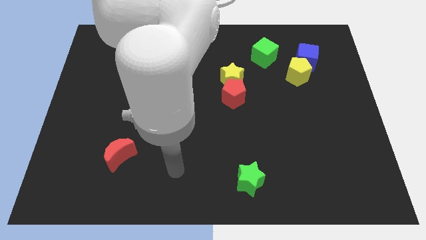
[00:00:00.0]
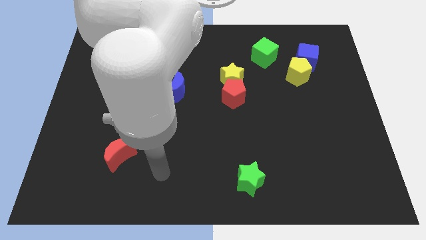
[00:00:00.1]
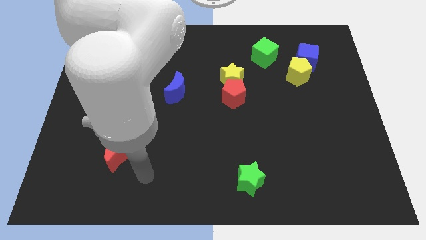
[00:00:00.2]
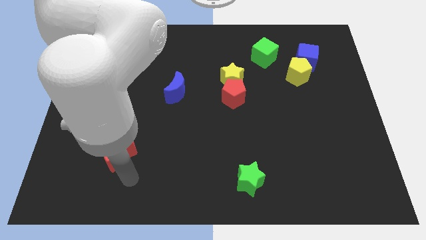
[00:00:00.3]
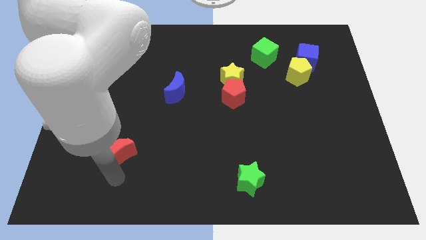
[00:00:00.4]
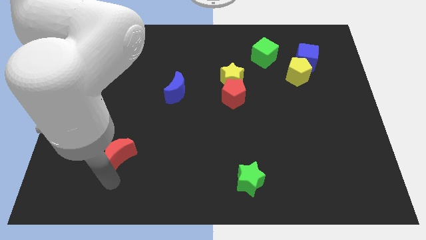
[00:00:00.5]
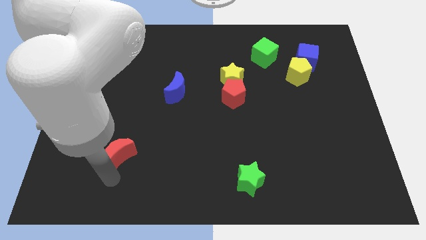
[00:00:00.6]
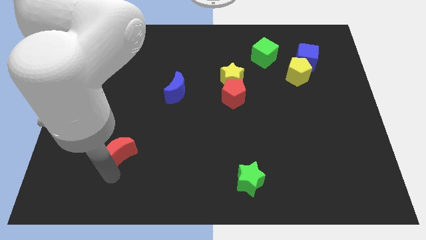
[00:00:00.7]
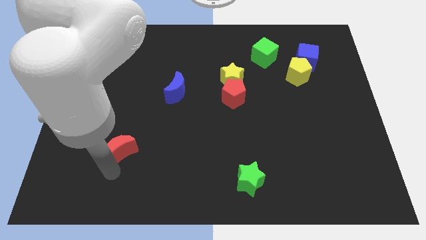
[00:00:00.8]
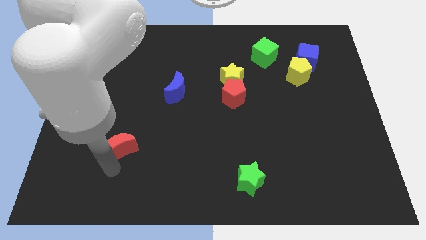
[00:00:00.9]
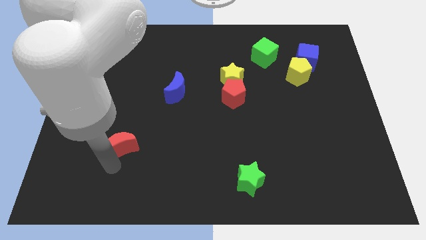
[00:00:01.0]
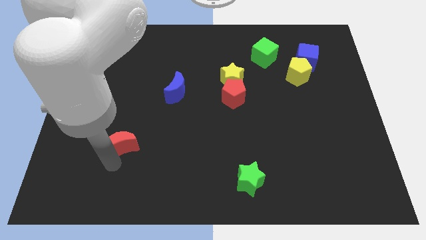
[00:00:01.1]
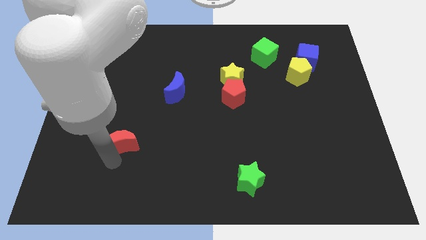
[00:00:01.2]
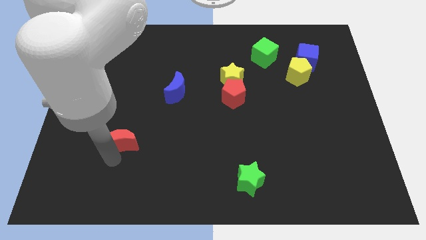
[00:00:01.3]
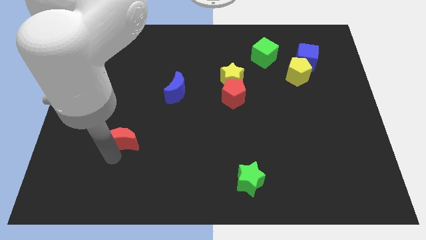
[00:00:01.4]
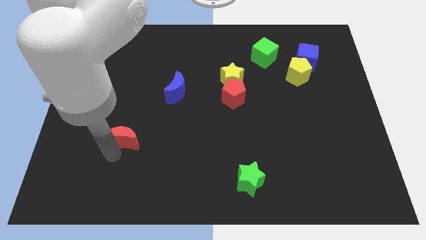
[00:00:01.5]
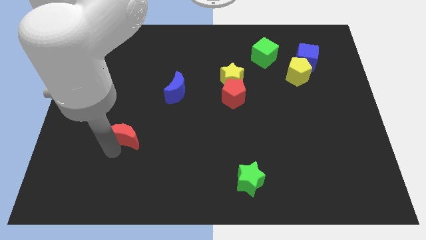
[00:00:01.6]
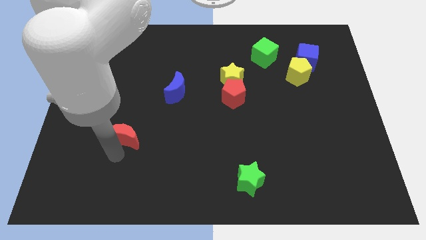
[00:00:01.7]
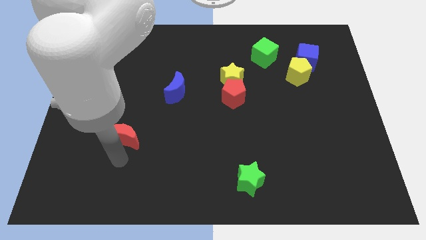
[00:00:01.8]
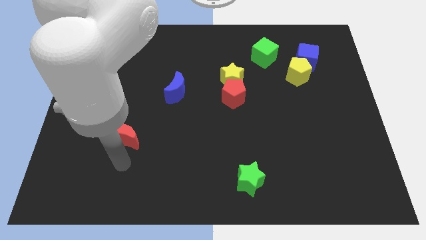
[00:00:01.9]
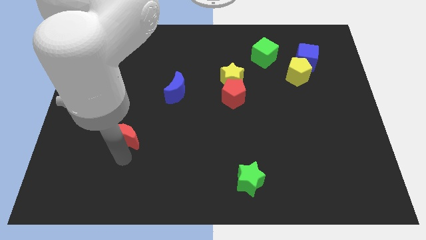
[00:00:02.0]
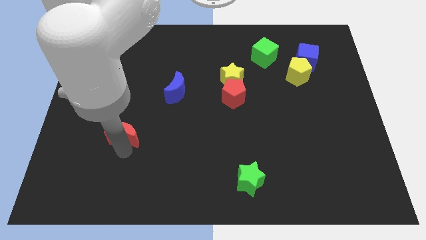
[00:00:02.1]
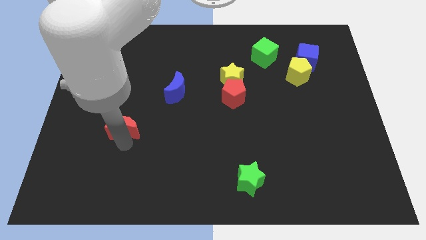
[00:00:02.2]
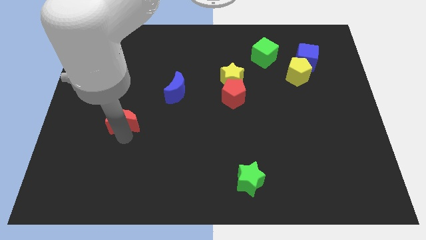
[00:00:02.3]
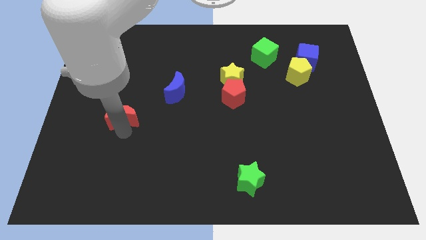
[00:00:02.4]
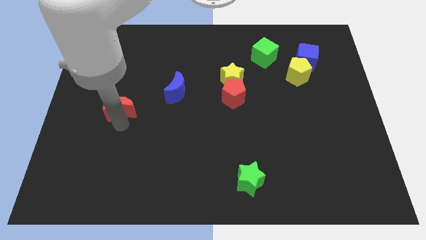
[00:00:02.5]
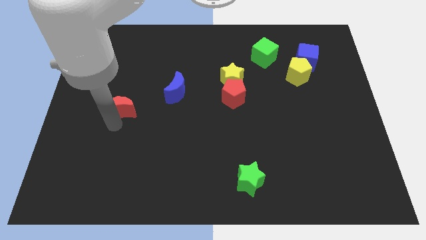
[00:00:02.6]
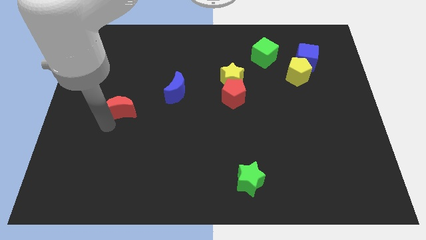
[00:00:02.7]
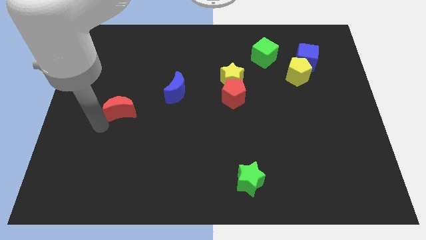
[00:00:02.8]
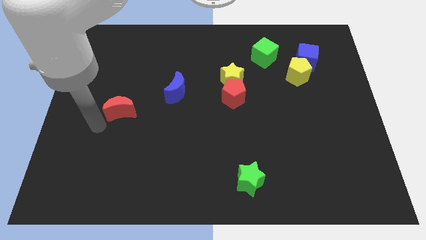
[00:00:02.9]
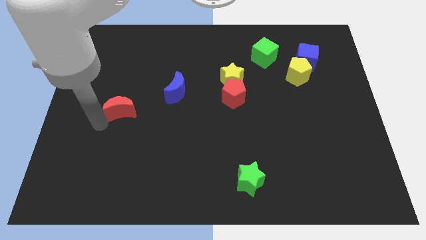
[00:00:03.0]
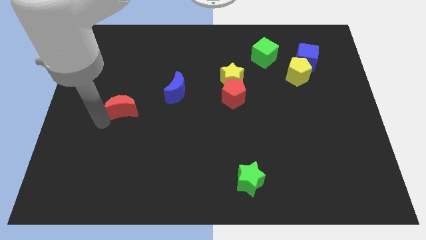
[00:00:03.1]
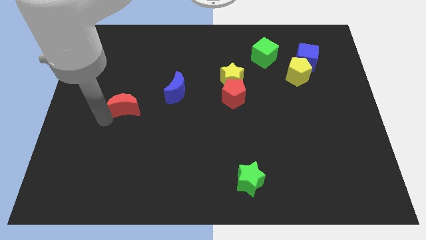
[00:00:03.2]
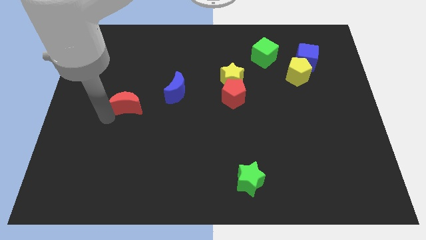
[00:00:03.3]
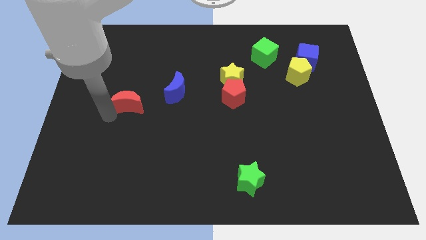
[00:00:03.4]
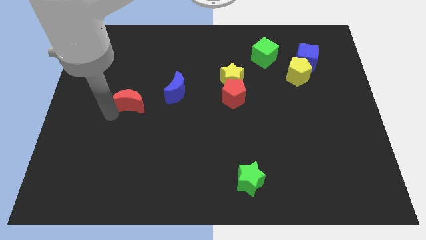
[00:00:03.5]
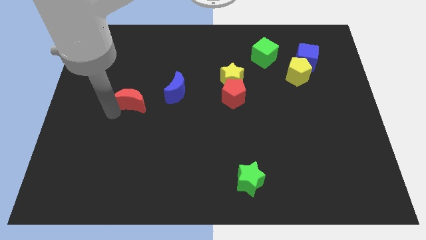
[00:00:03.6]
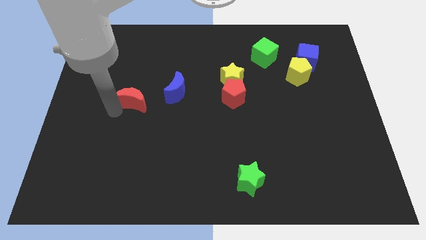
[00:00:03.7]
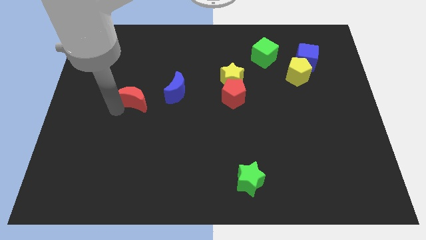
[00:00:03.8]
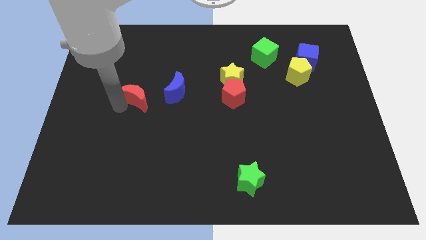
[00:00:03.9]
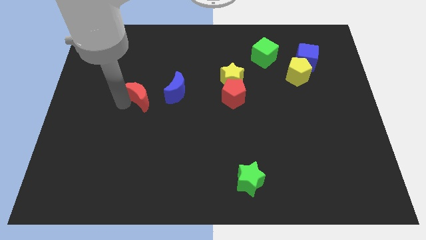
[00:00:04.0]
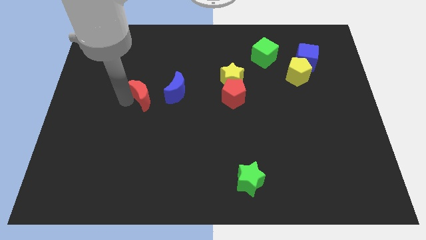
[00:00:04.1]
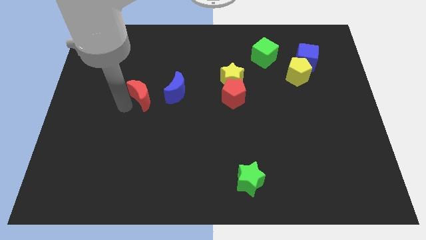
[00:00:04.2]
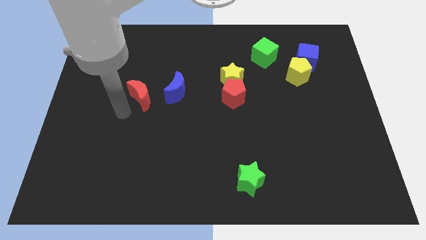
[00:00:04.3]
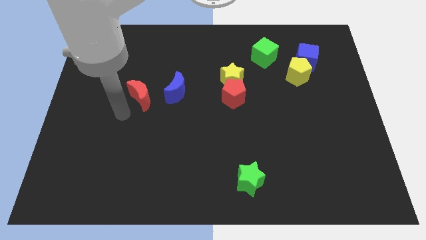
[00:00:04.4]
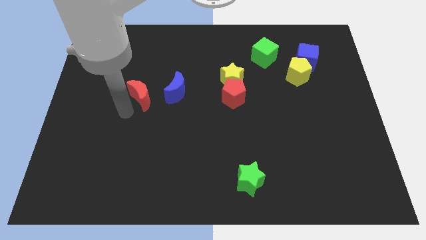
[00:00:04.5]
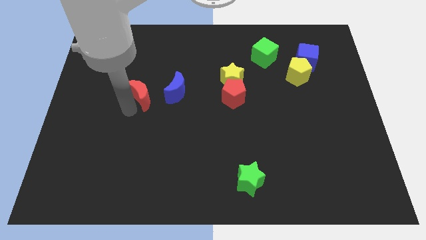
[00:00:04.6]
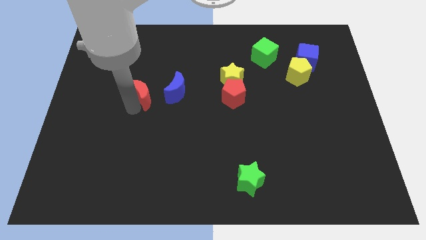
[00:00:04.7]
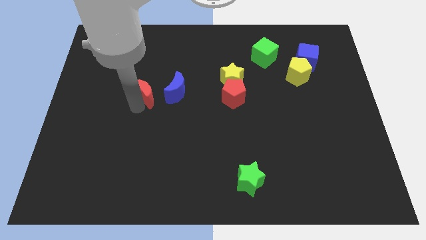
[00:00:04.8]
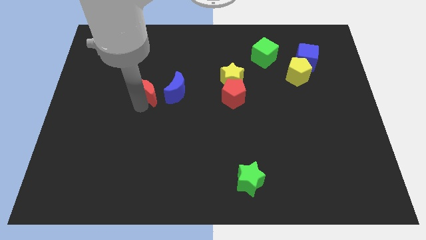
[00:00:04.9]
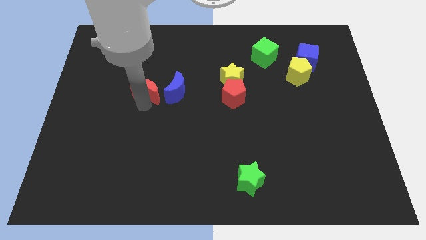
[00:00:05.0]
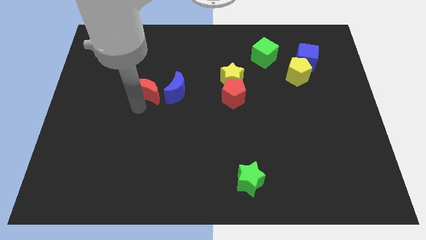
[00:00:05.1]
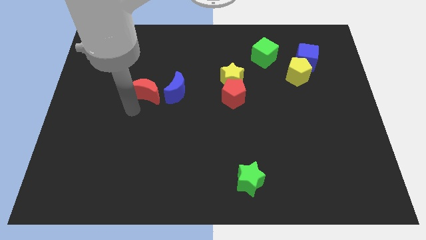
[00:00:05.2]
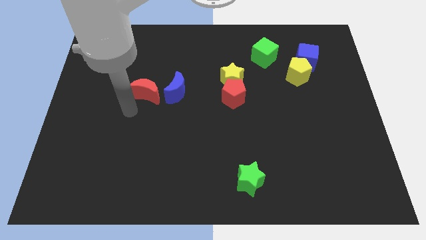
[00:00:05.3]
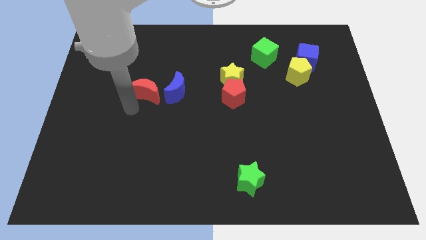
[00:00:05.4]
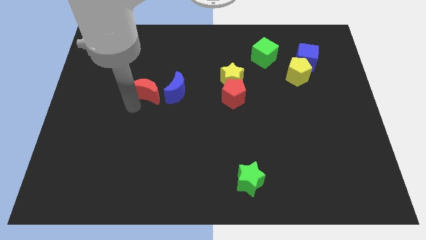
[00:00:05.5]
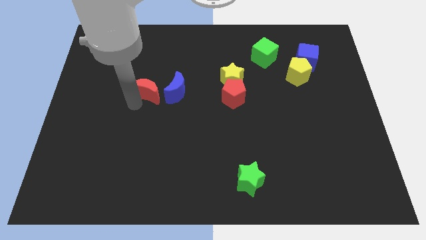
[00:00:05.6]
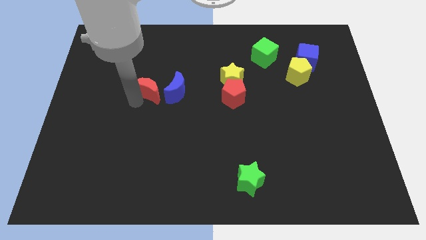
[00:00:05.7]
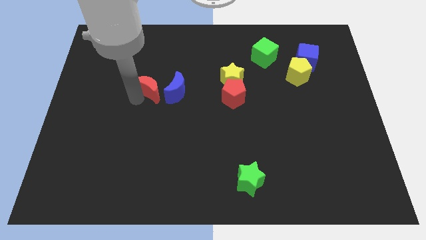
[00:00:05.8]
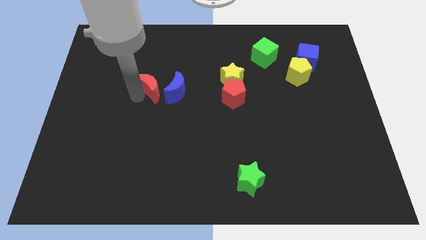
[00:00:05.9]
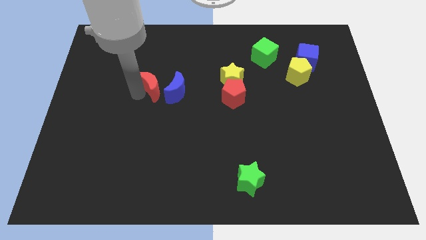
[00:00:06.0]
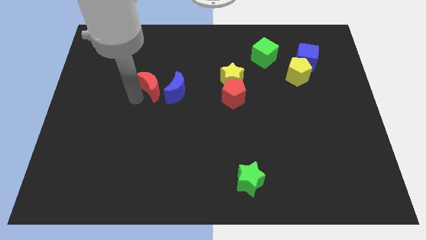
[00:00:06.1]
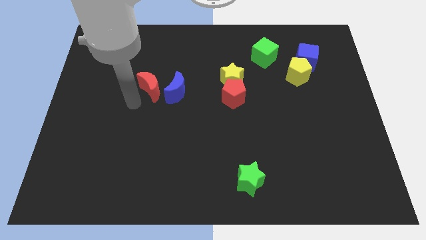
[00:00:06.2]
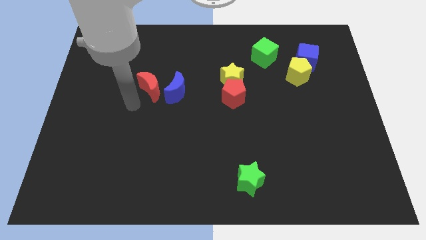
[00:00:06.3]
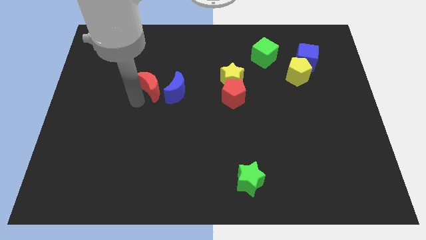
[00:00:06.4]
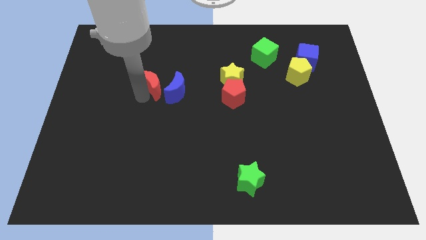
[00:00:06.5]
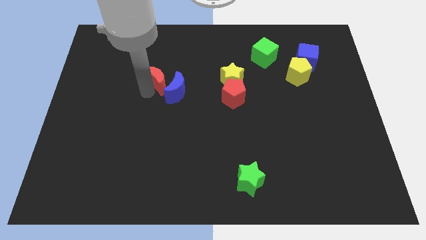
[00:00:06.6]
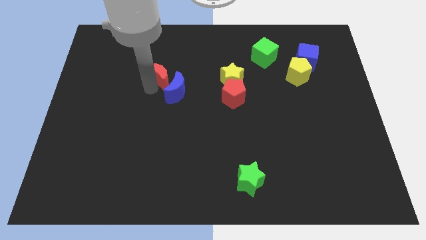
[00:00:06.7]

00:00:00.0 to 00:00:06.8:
put the red moon above the blue moon
